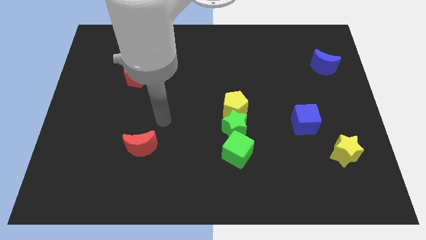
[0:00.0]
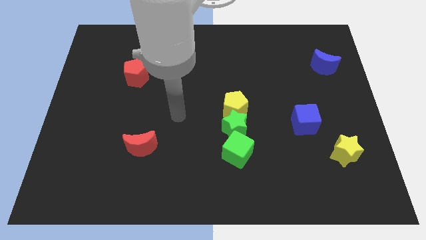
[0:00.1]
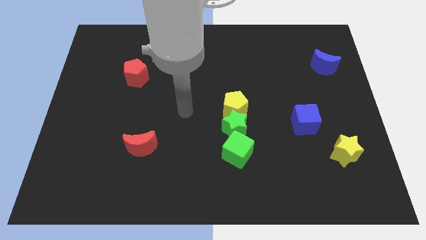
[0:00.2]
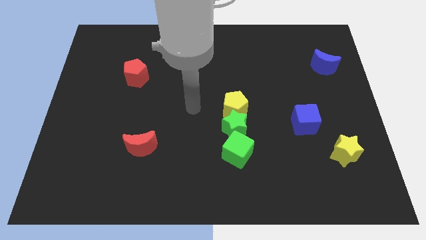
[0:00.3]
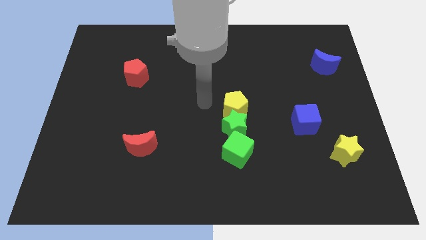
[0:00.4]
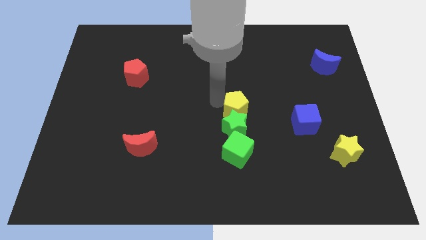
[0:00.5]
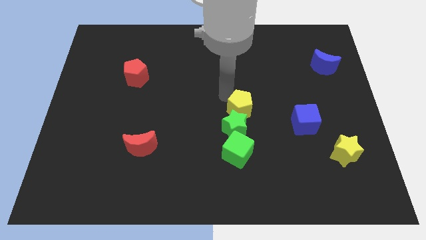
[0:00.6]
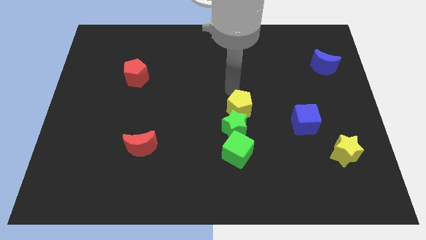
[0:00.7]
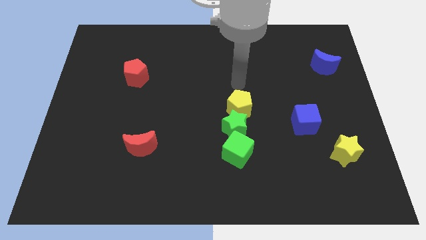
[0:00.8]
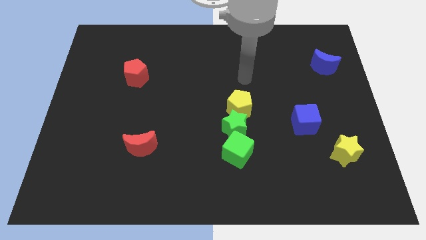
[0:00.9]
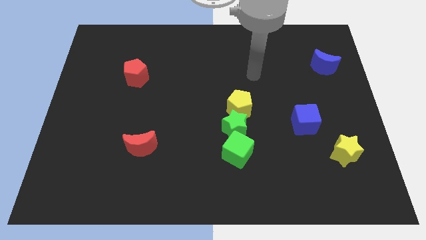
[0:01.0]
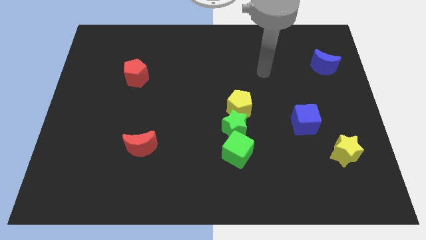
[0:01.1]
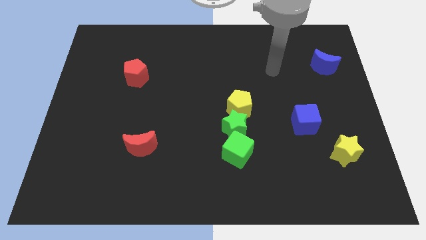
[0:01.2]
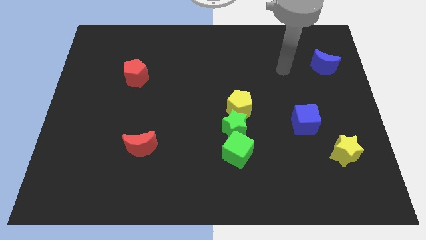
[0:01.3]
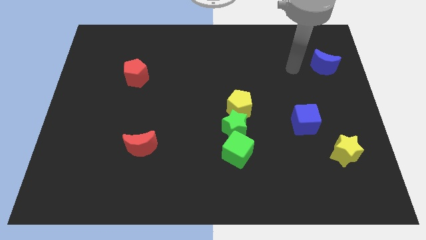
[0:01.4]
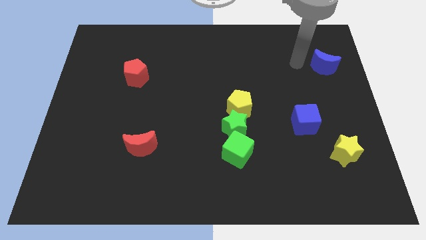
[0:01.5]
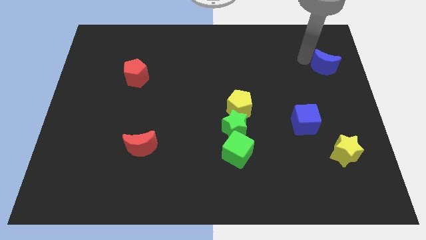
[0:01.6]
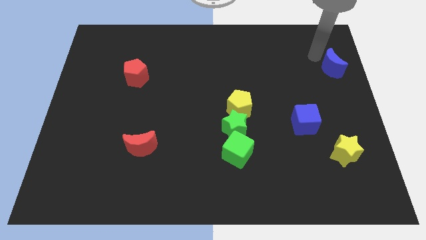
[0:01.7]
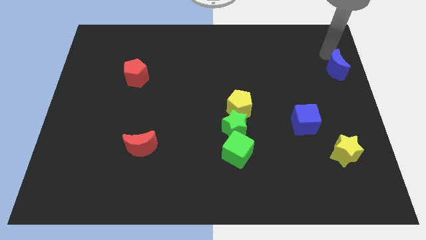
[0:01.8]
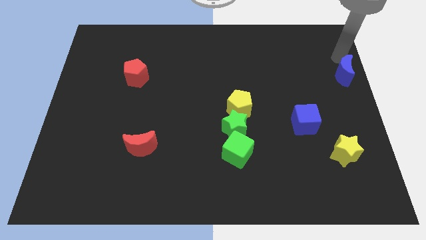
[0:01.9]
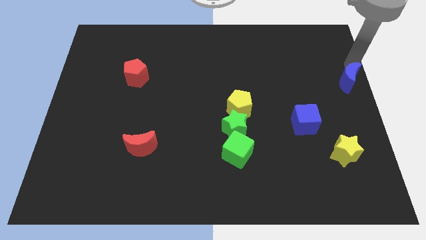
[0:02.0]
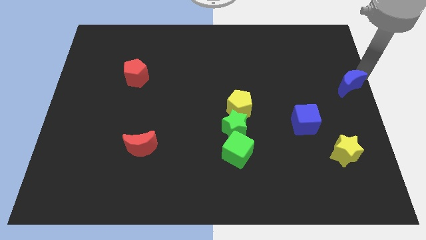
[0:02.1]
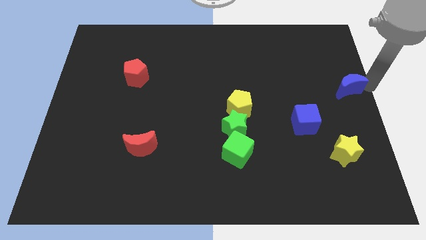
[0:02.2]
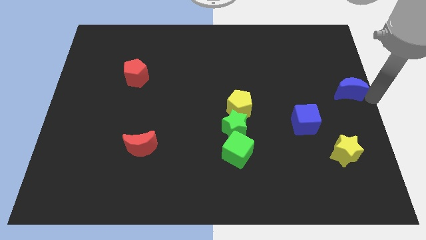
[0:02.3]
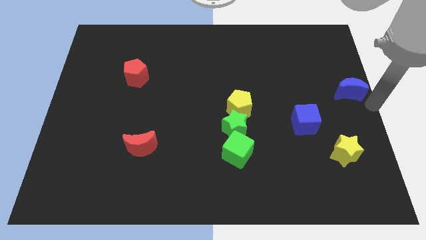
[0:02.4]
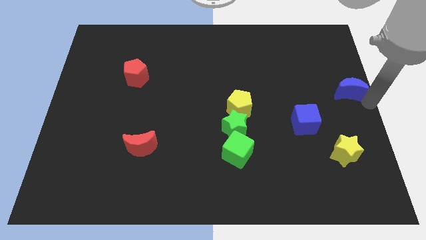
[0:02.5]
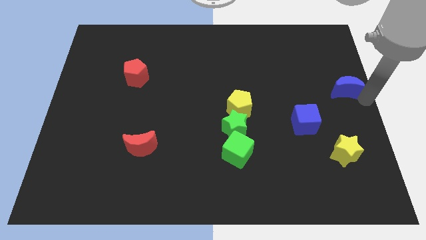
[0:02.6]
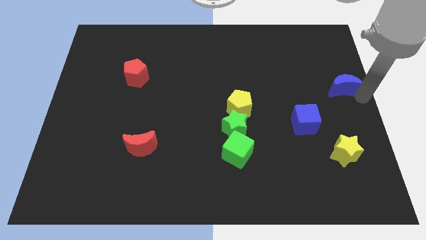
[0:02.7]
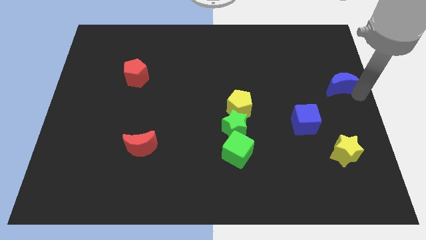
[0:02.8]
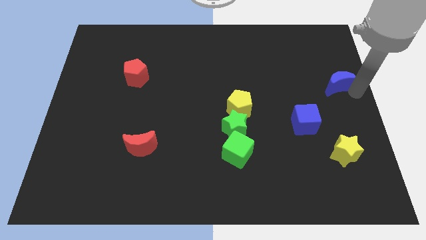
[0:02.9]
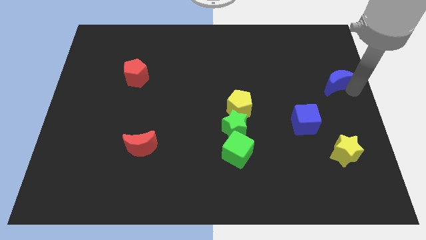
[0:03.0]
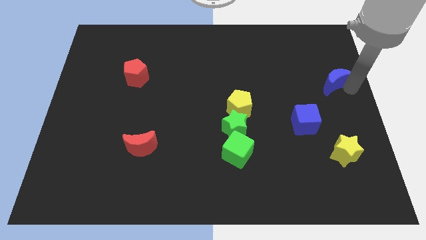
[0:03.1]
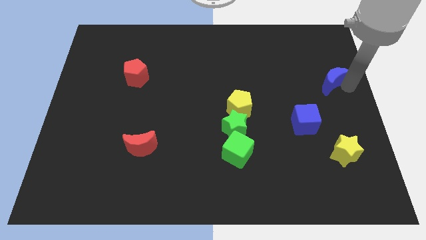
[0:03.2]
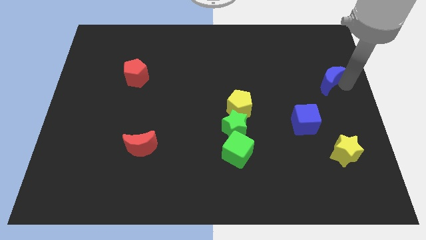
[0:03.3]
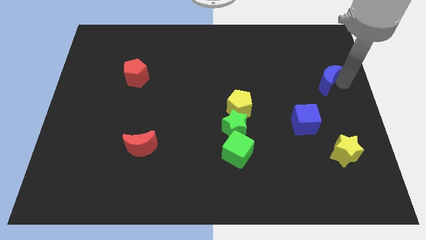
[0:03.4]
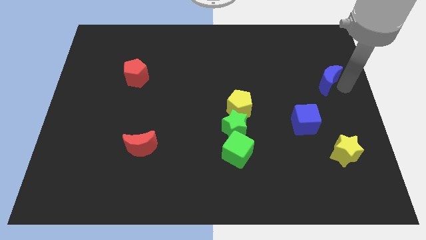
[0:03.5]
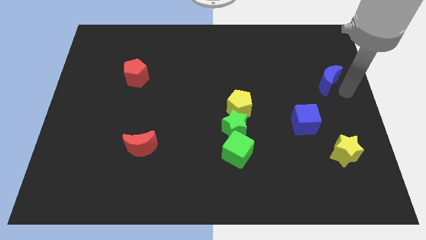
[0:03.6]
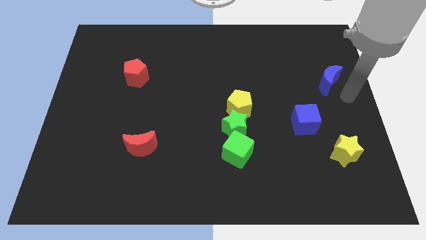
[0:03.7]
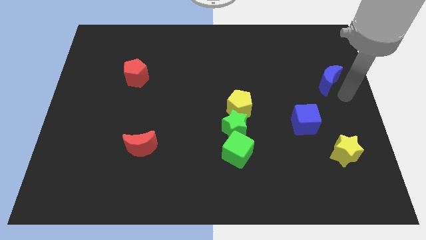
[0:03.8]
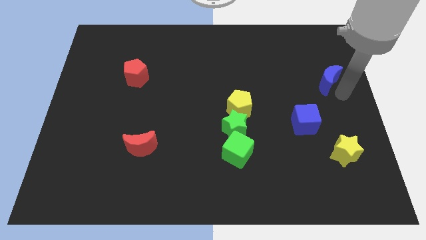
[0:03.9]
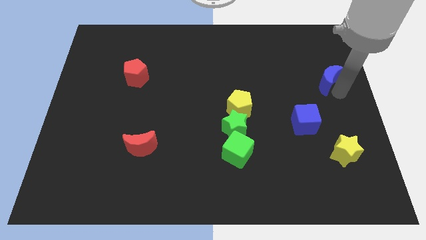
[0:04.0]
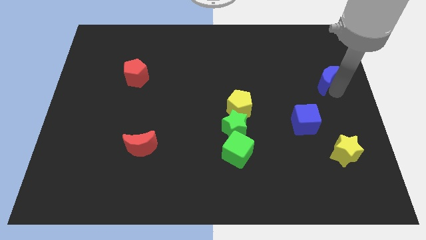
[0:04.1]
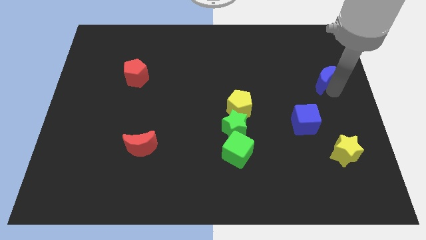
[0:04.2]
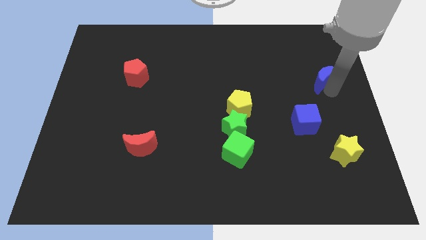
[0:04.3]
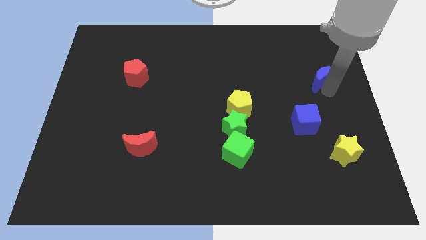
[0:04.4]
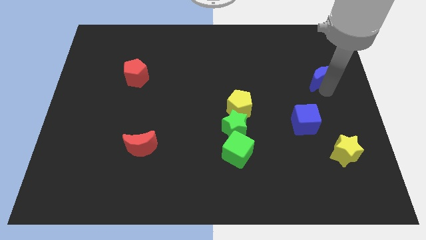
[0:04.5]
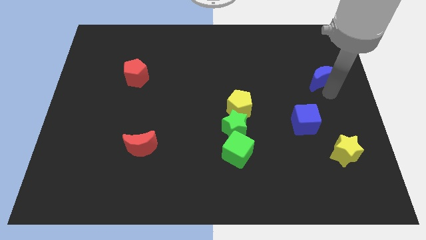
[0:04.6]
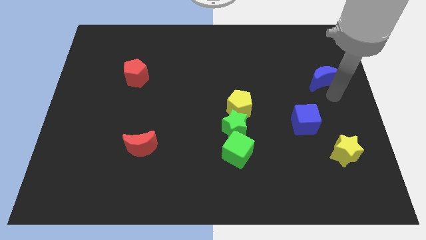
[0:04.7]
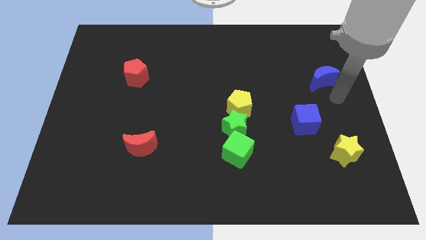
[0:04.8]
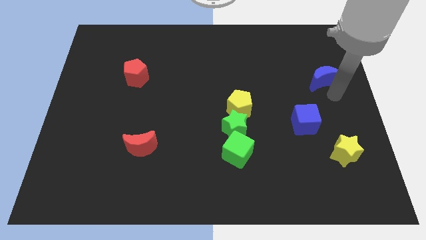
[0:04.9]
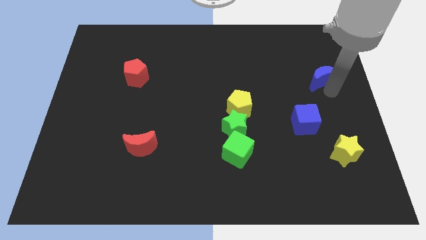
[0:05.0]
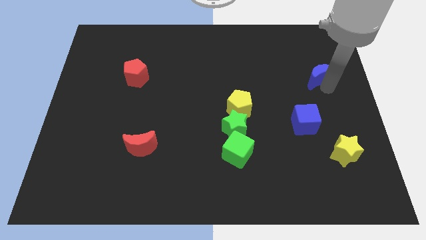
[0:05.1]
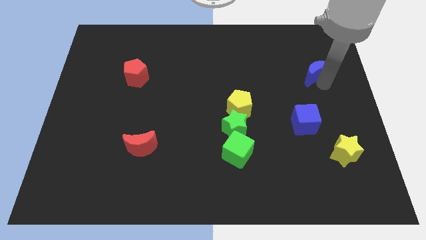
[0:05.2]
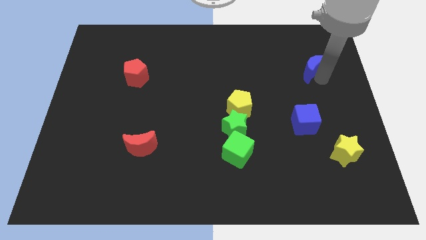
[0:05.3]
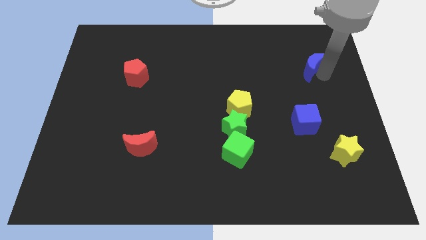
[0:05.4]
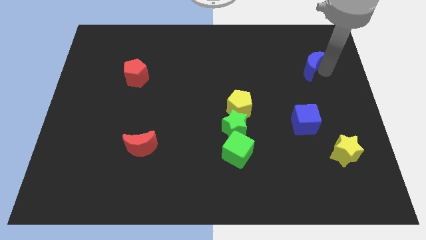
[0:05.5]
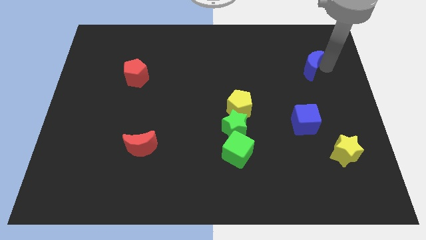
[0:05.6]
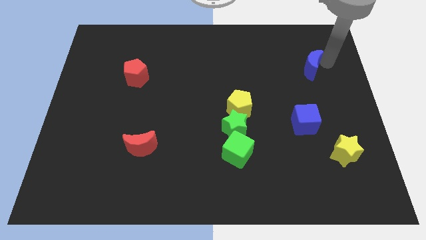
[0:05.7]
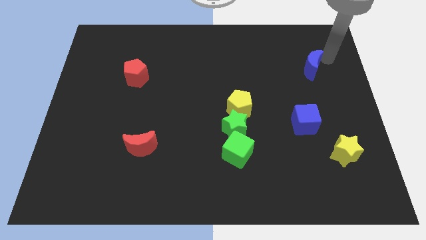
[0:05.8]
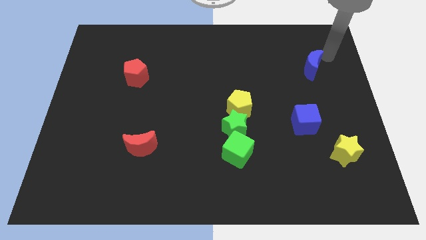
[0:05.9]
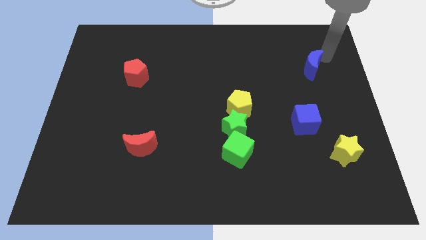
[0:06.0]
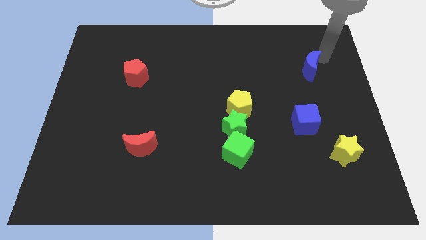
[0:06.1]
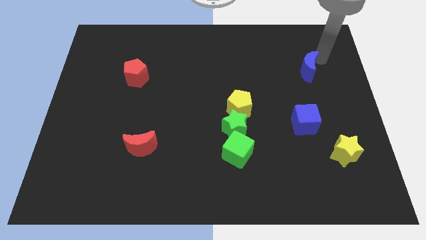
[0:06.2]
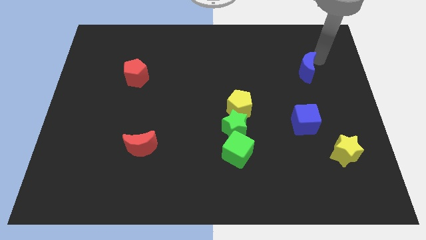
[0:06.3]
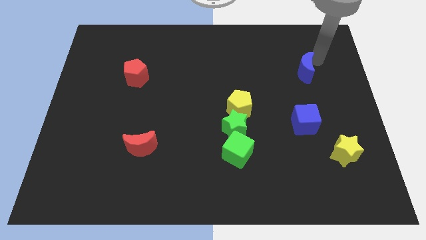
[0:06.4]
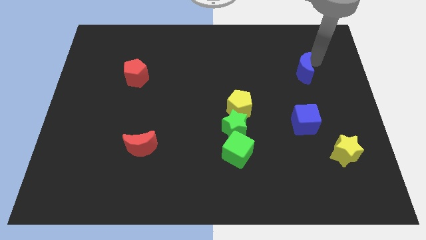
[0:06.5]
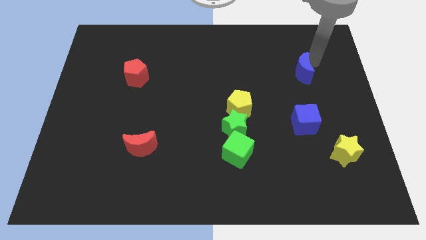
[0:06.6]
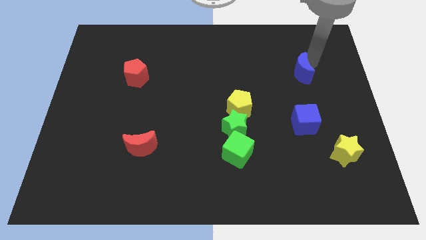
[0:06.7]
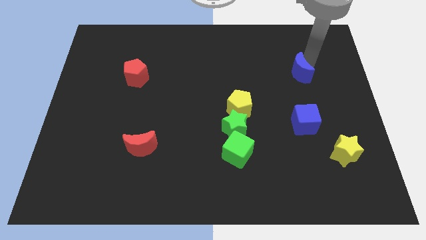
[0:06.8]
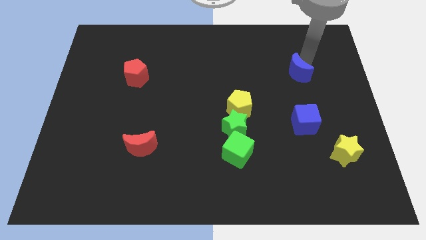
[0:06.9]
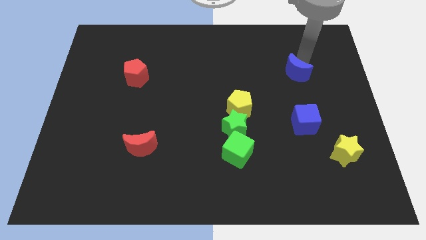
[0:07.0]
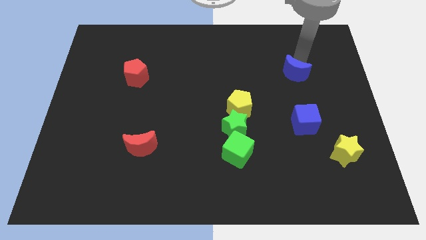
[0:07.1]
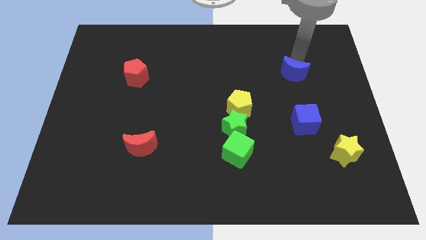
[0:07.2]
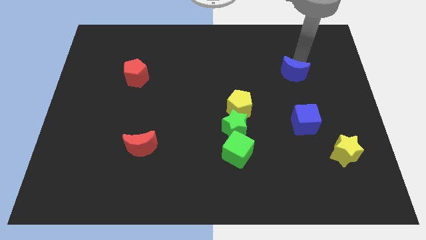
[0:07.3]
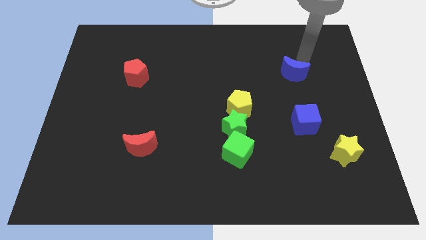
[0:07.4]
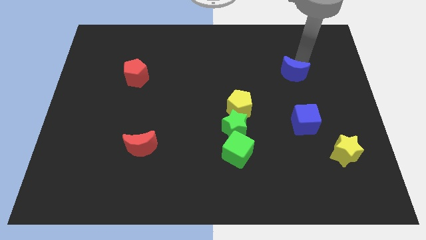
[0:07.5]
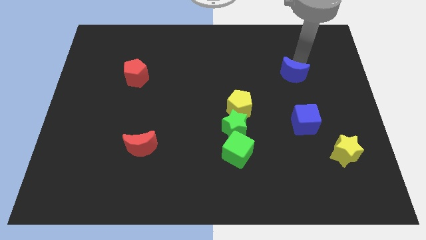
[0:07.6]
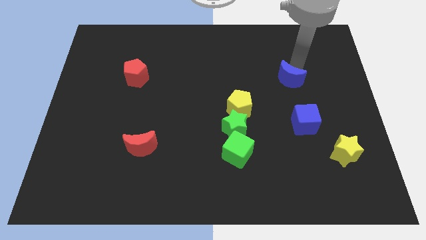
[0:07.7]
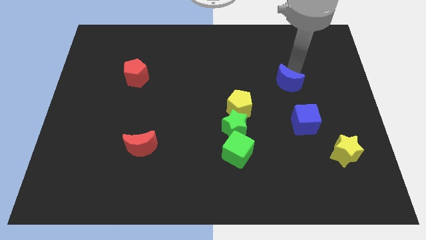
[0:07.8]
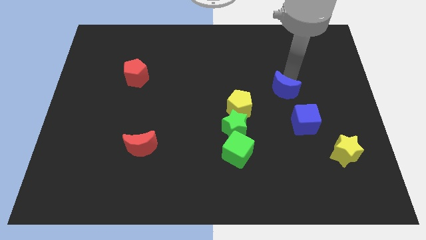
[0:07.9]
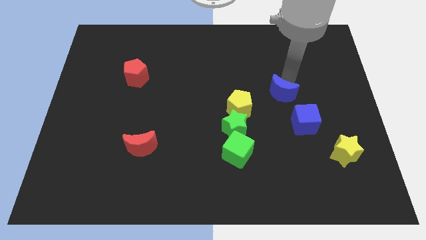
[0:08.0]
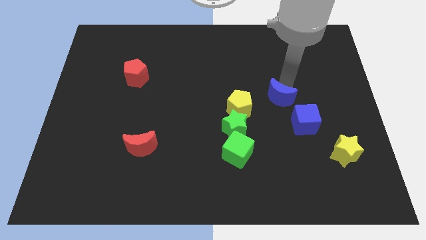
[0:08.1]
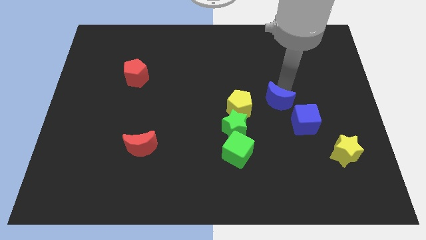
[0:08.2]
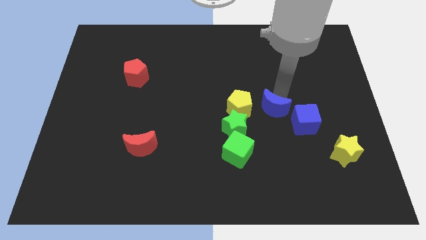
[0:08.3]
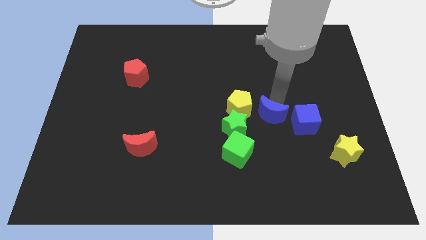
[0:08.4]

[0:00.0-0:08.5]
slide the blue moon to the top right side of the green cube
